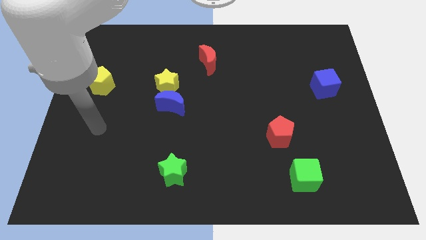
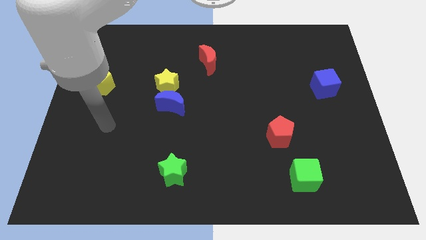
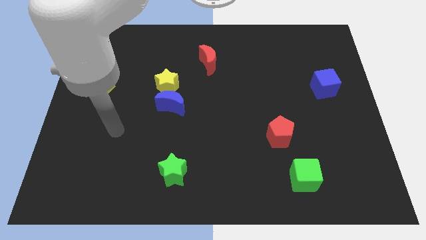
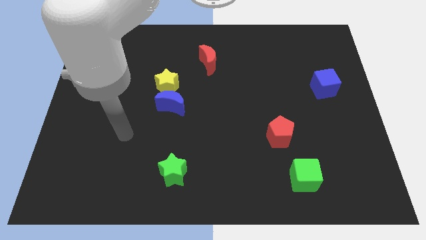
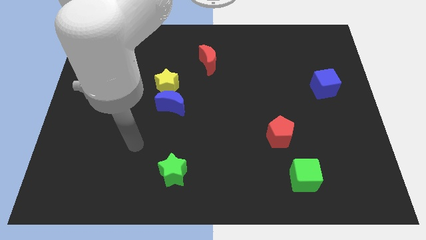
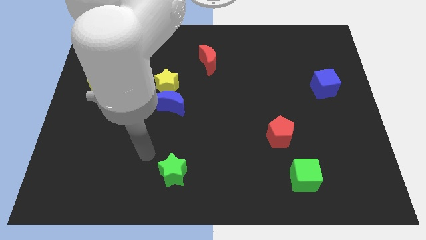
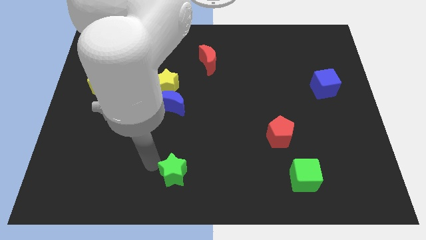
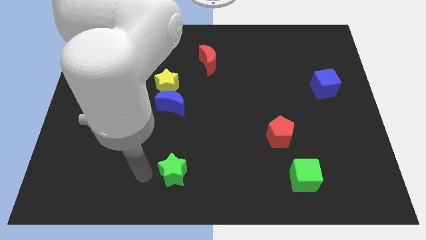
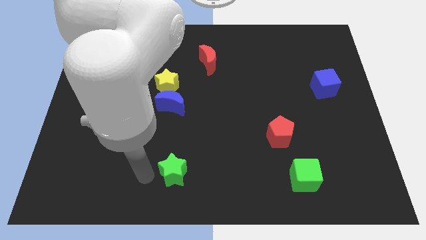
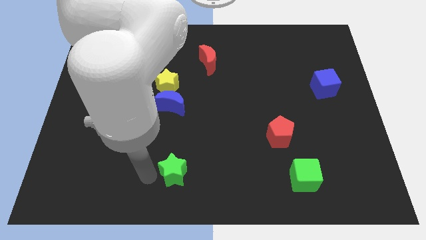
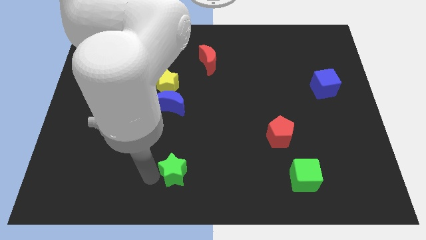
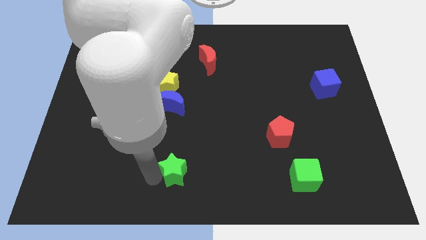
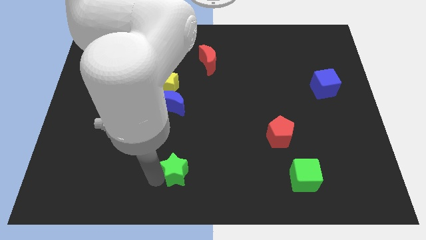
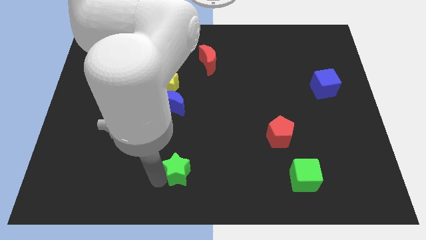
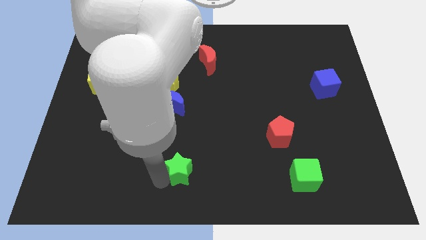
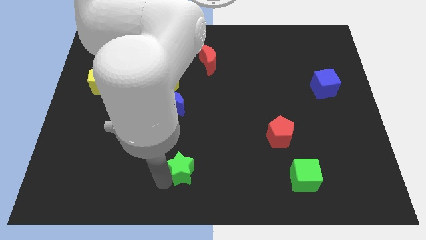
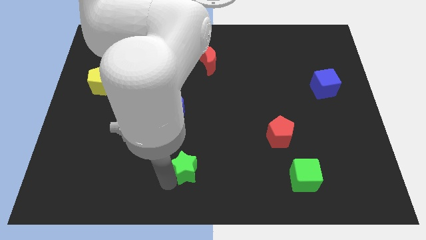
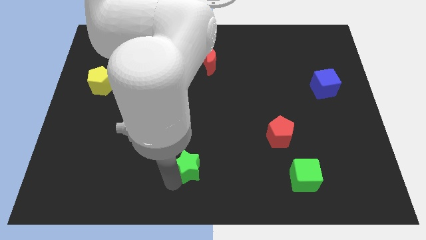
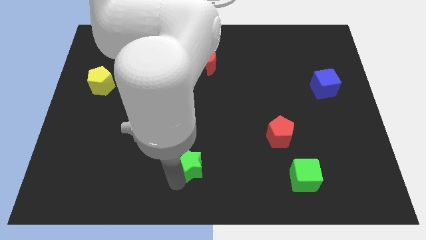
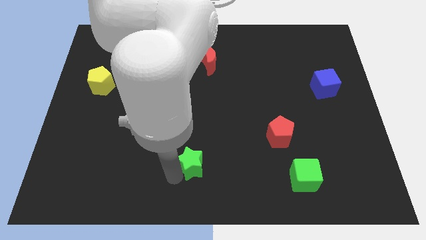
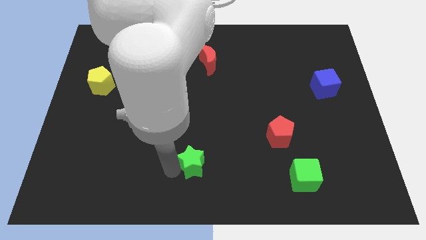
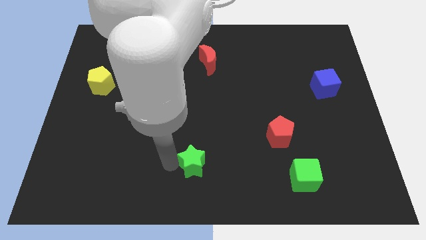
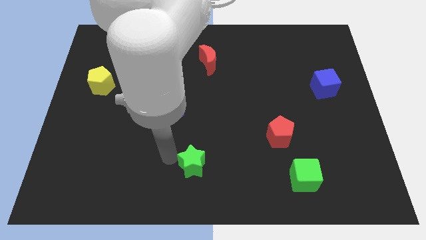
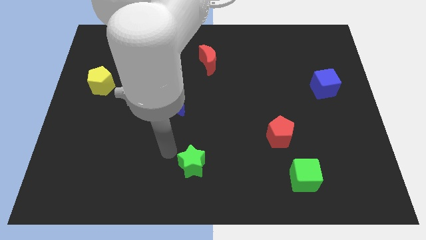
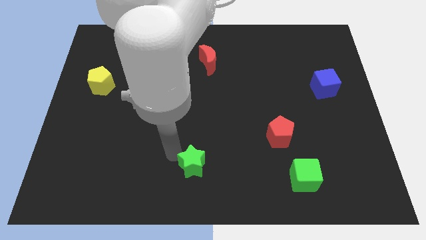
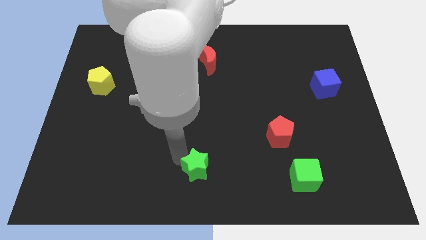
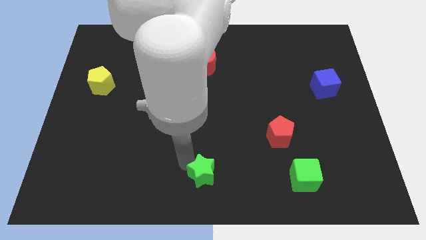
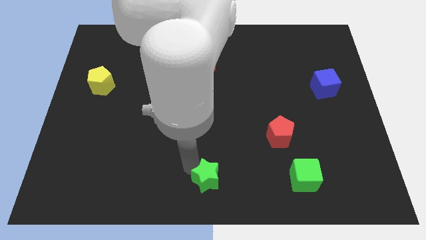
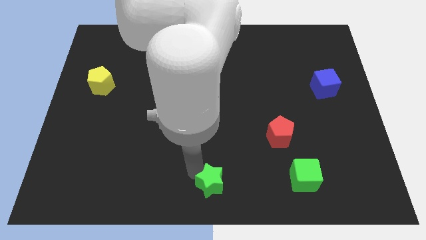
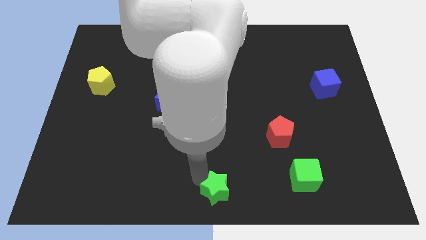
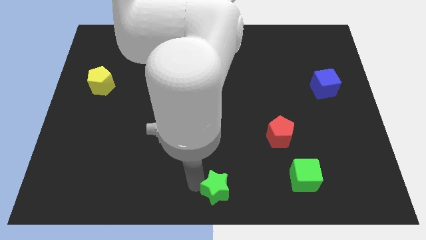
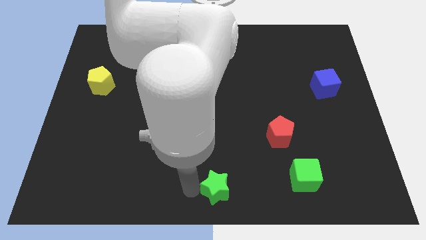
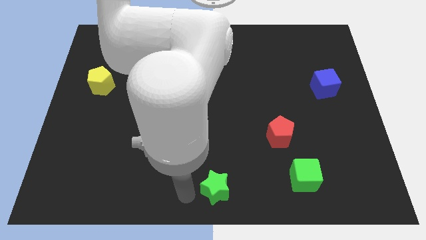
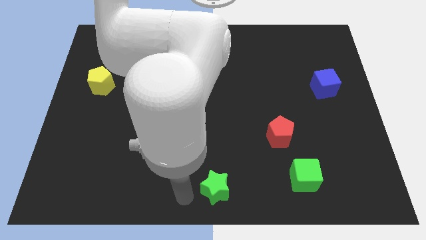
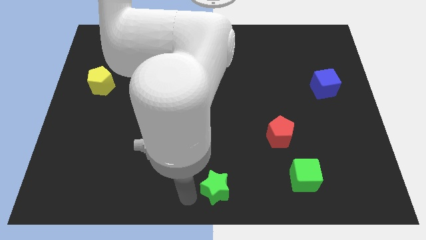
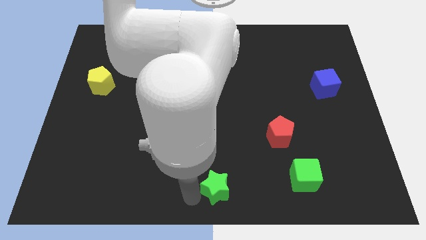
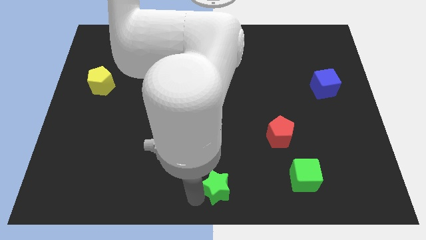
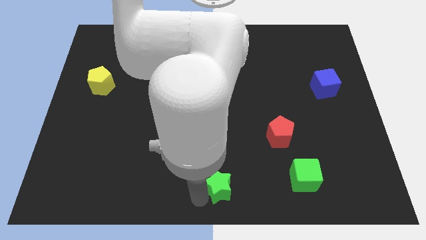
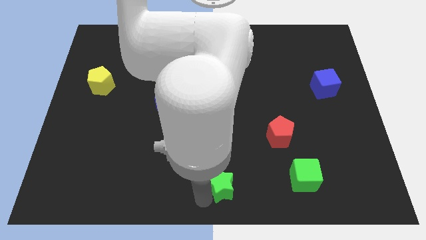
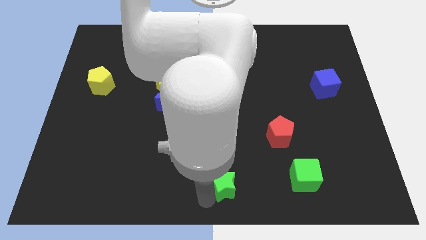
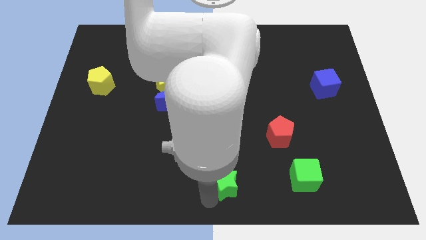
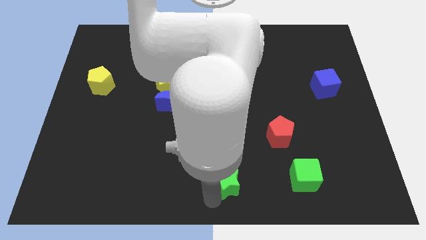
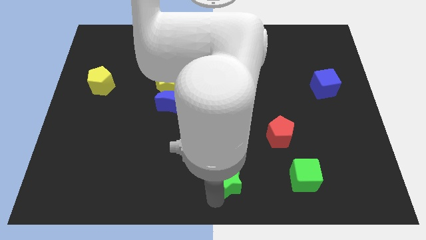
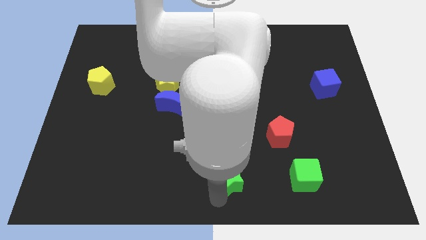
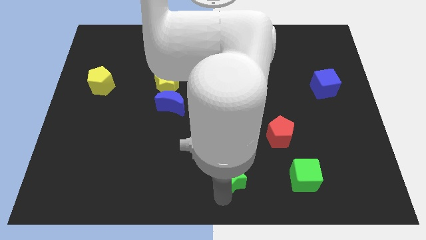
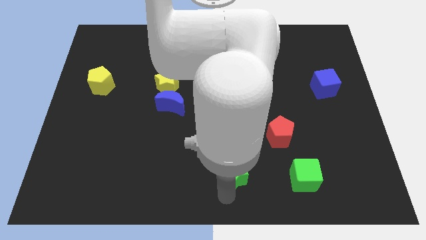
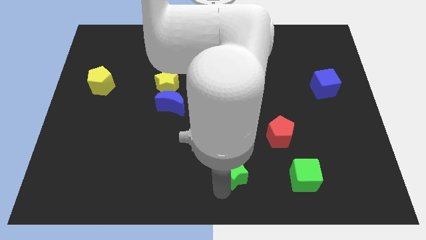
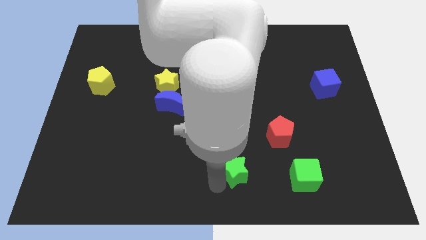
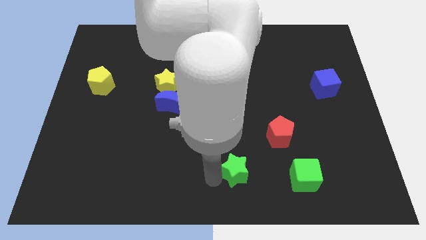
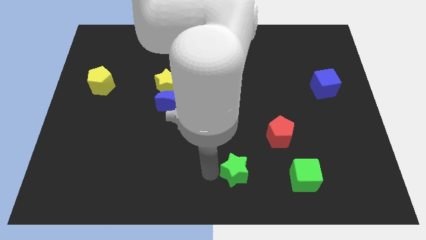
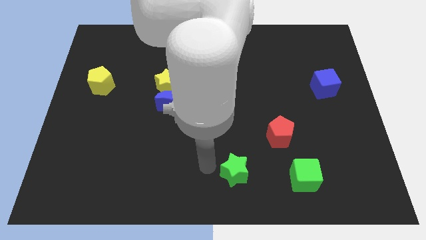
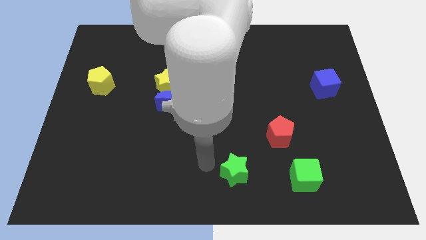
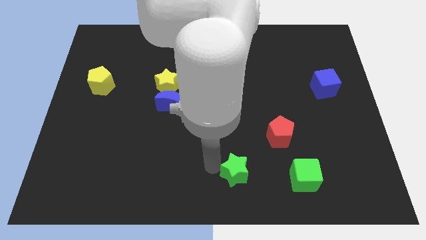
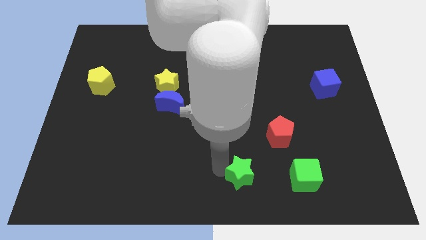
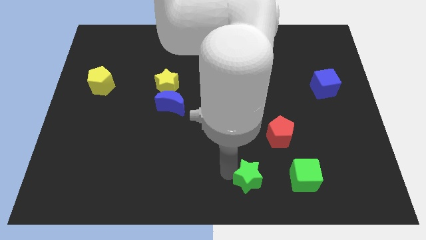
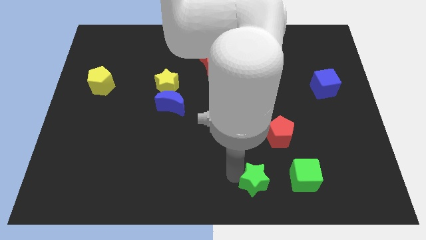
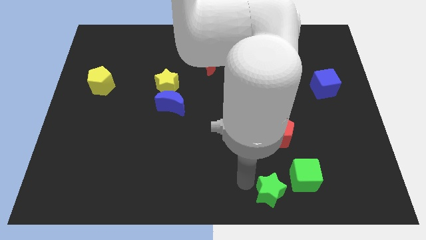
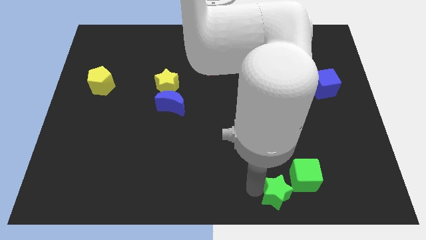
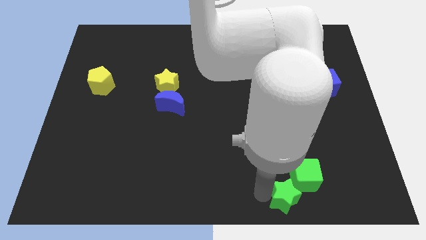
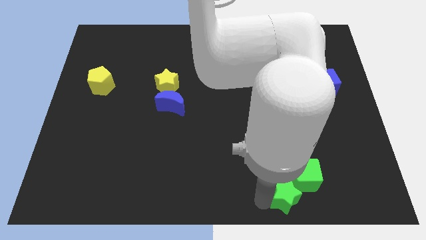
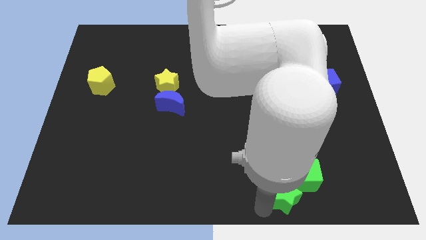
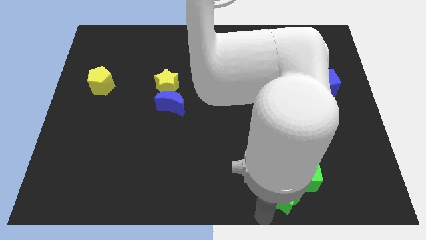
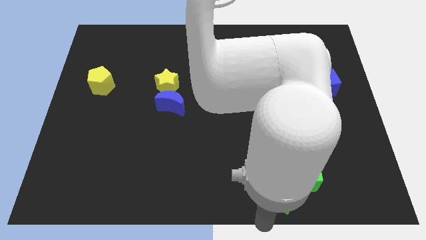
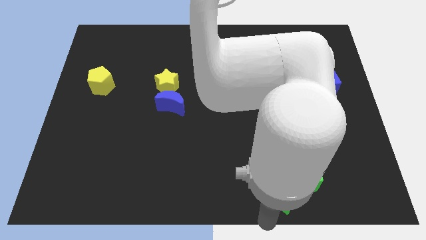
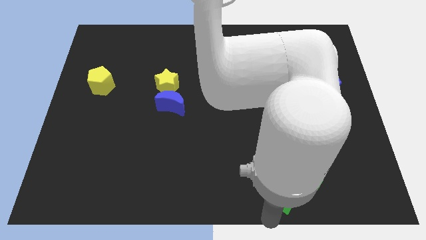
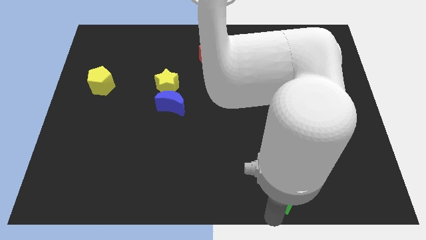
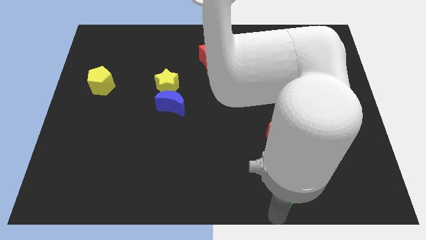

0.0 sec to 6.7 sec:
push the green star towards the green cube

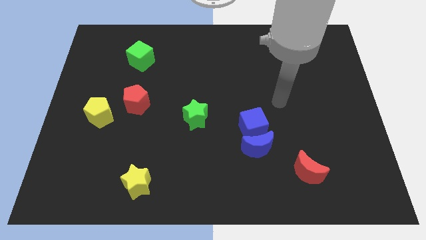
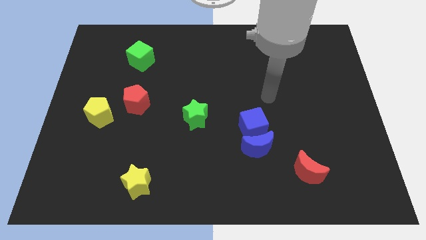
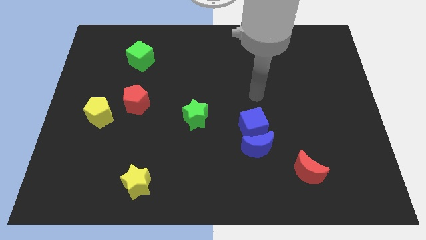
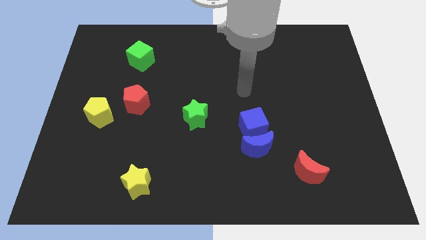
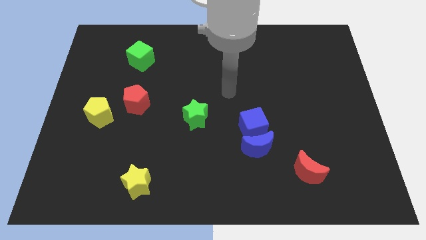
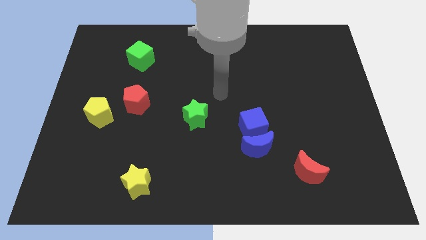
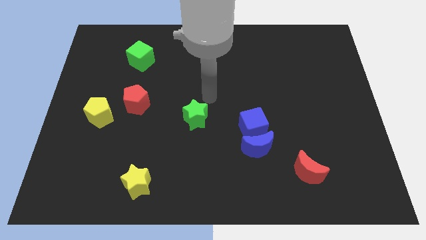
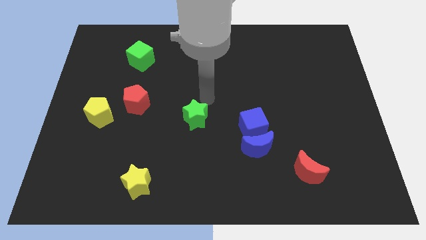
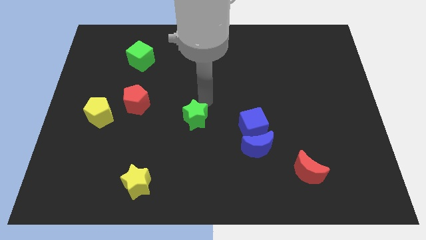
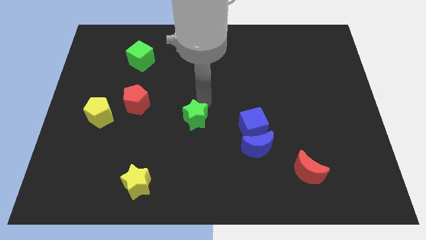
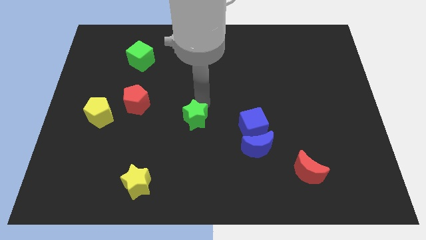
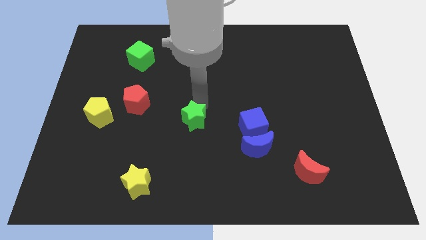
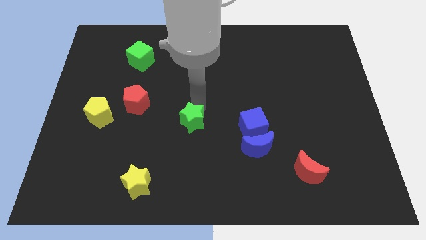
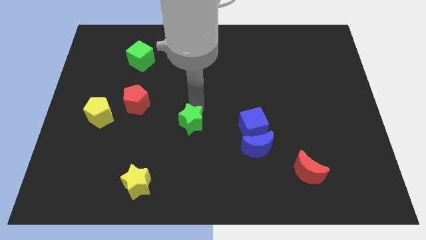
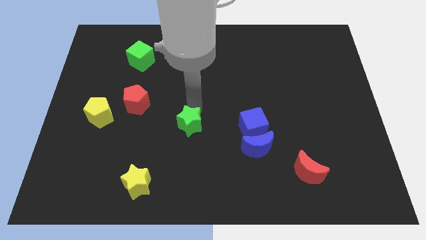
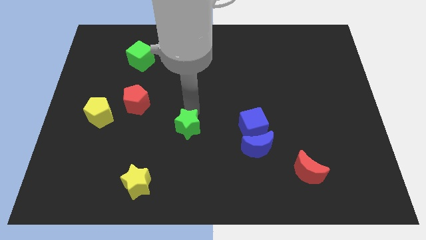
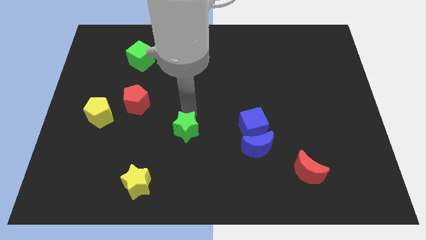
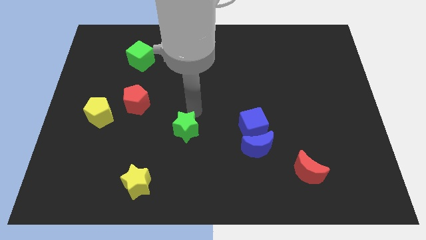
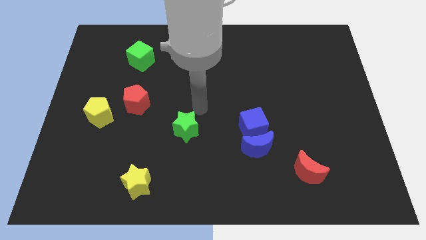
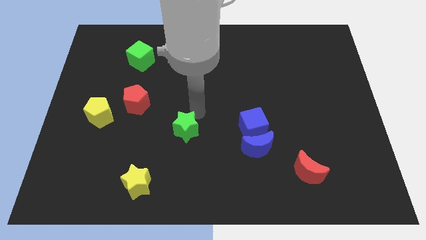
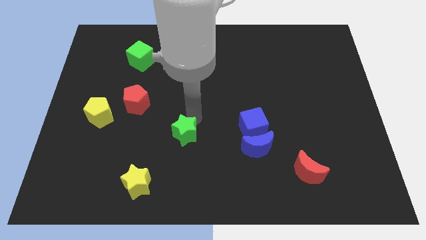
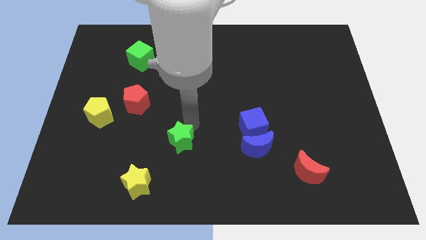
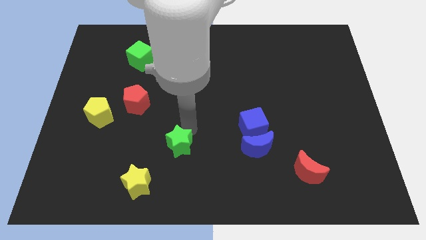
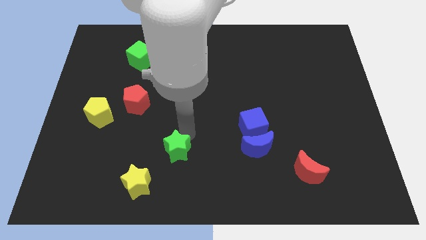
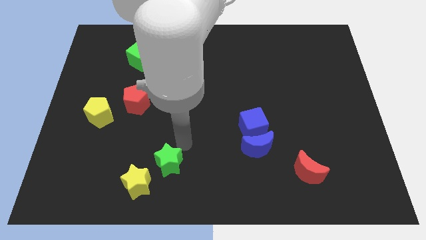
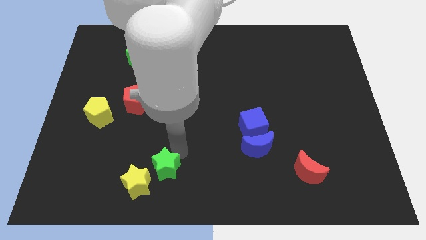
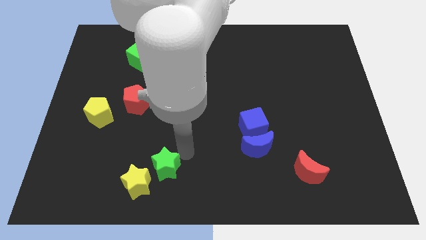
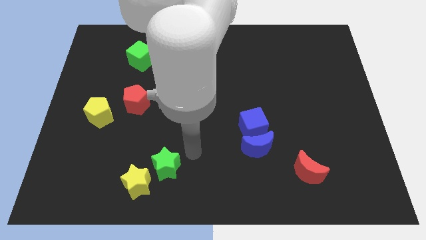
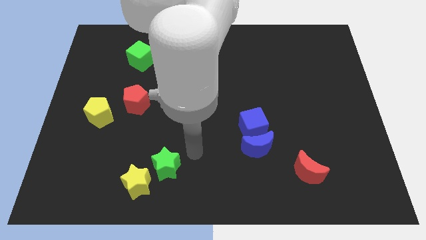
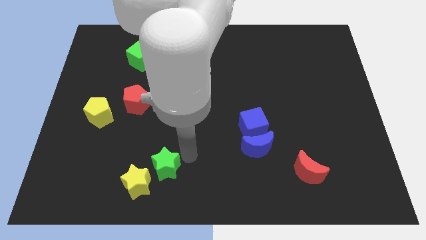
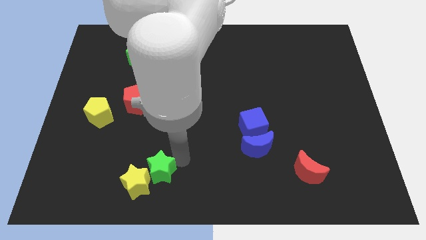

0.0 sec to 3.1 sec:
put the green star to the yellow star
